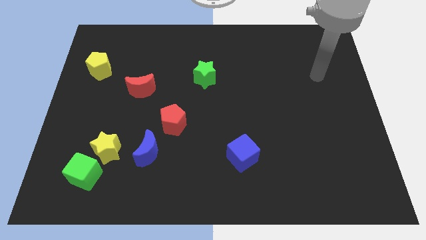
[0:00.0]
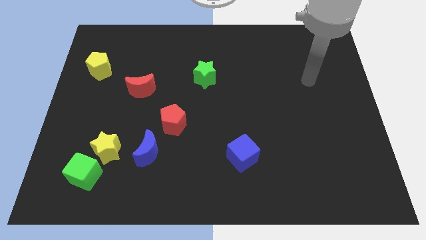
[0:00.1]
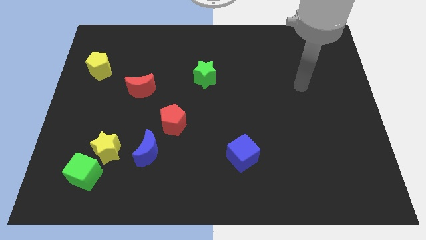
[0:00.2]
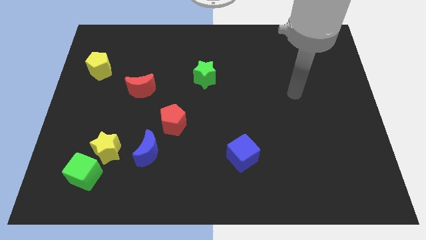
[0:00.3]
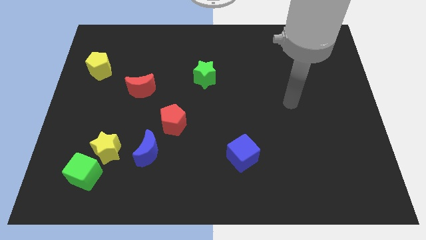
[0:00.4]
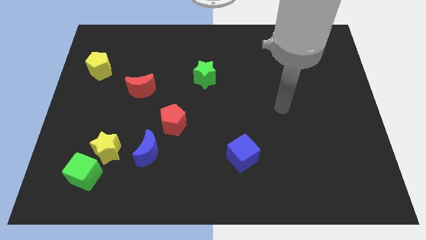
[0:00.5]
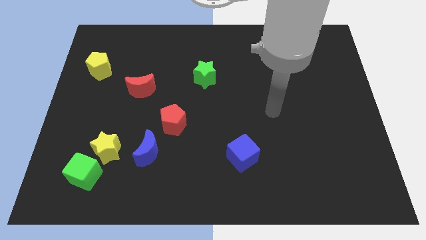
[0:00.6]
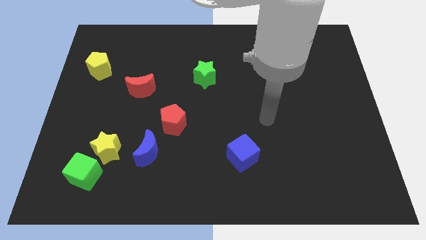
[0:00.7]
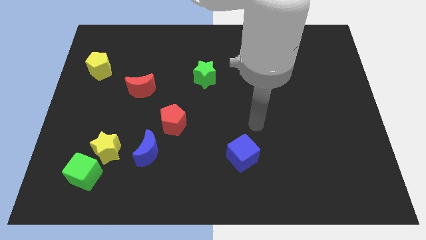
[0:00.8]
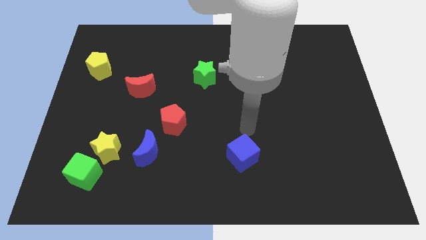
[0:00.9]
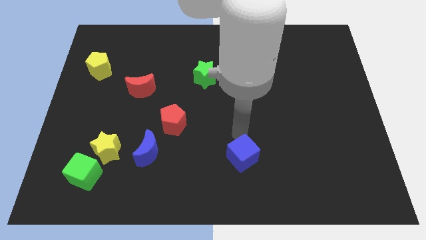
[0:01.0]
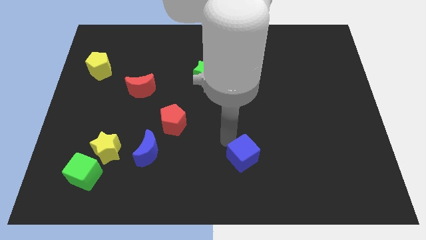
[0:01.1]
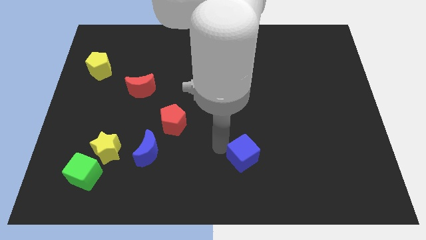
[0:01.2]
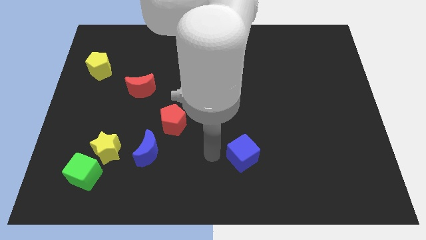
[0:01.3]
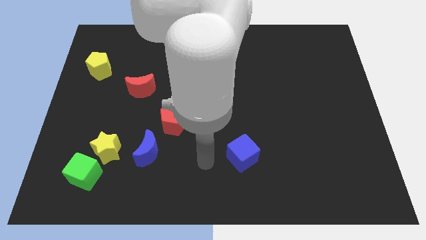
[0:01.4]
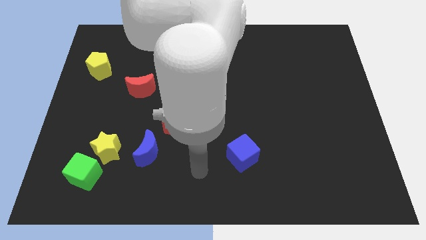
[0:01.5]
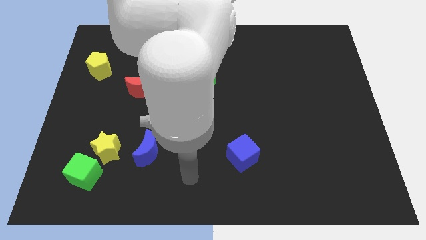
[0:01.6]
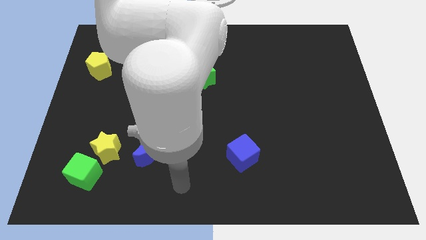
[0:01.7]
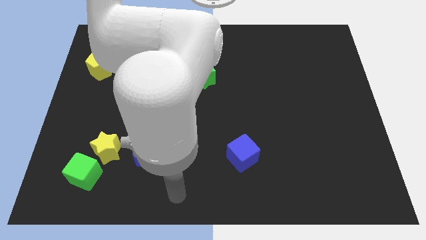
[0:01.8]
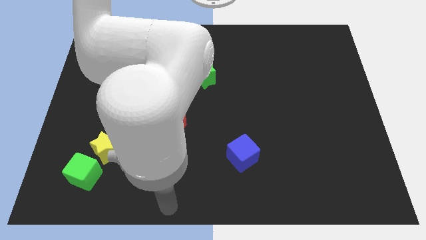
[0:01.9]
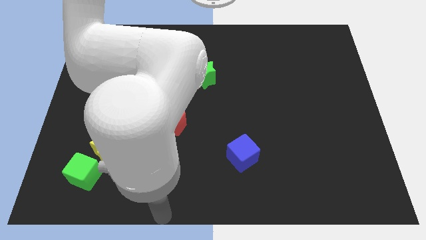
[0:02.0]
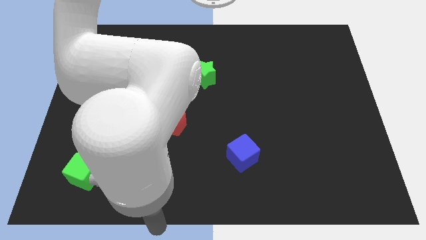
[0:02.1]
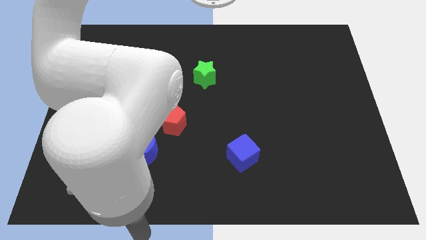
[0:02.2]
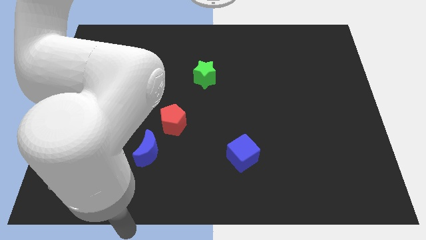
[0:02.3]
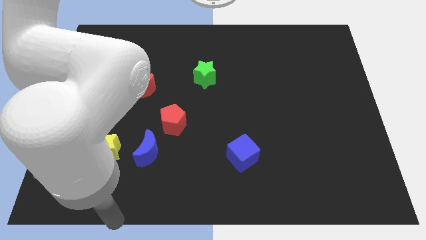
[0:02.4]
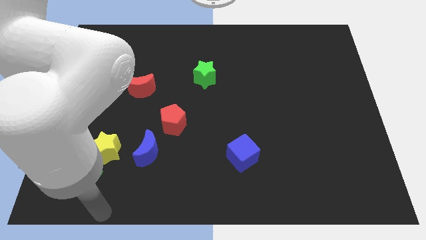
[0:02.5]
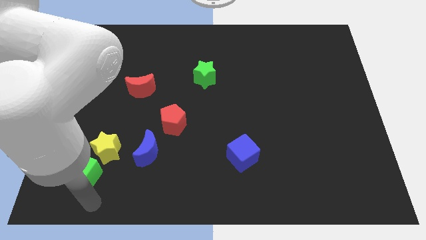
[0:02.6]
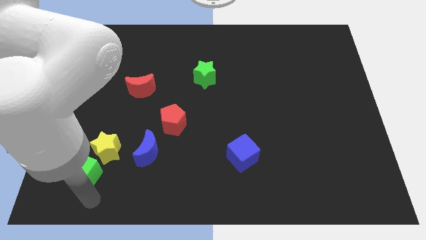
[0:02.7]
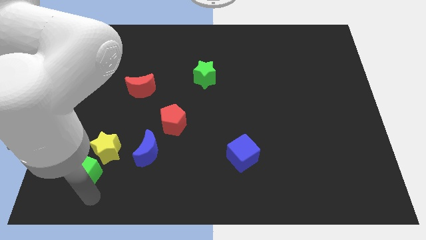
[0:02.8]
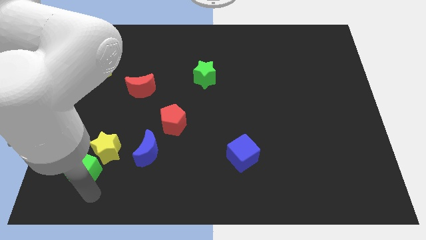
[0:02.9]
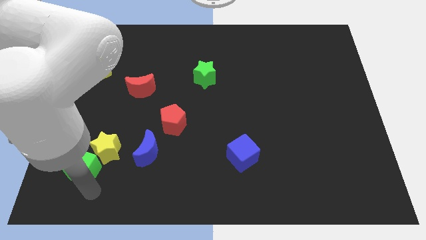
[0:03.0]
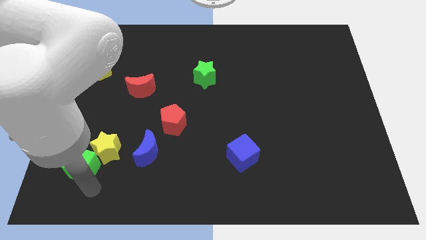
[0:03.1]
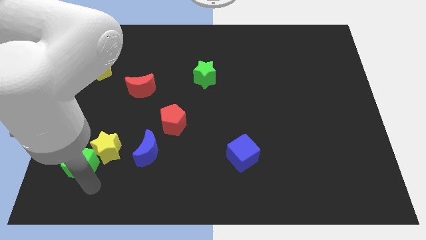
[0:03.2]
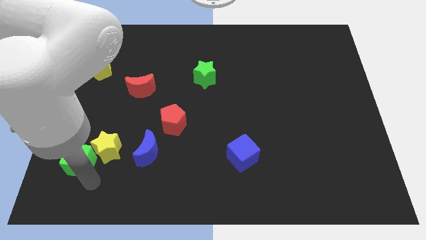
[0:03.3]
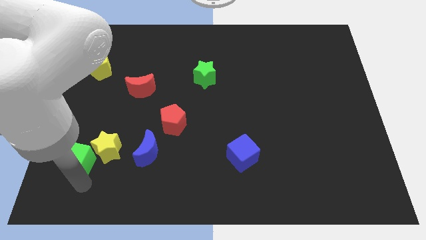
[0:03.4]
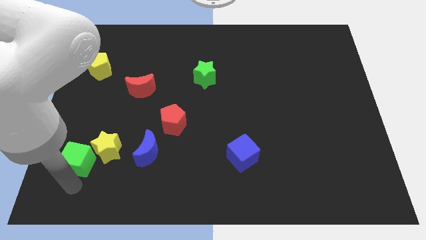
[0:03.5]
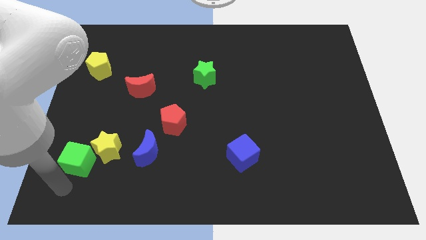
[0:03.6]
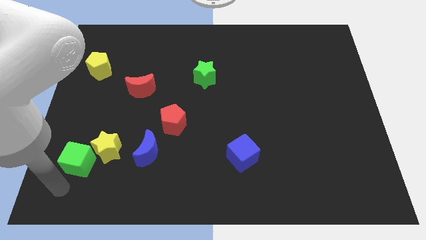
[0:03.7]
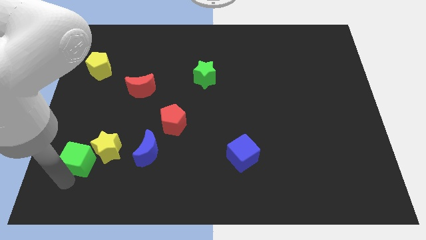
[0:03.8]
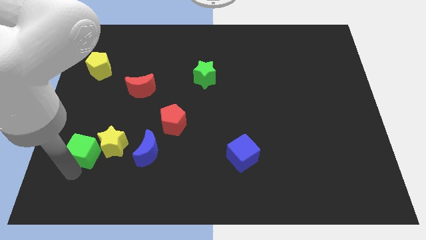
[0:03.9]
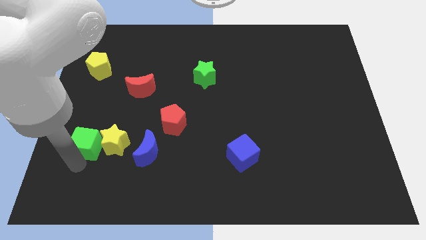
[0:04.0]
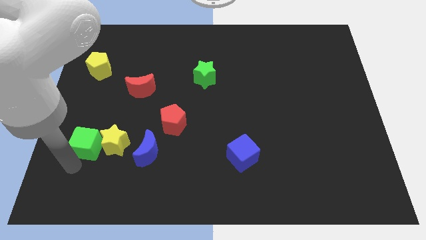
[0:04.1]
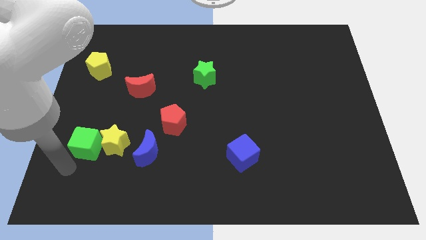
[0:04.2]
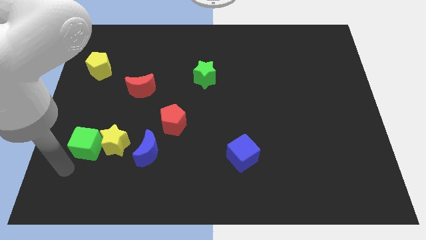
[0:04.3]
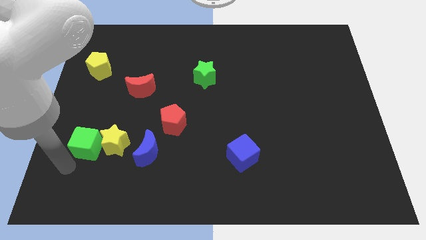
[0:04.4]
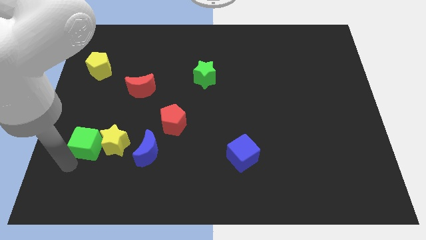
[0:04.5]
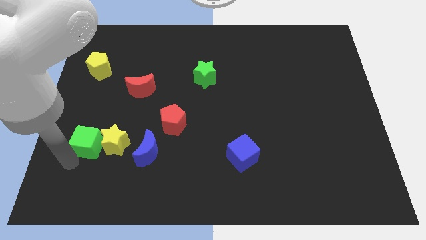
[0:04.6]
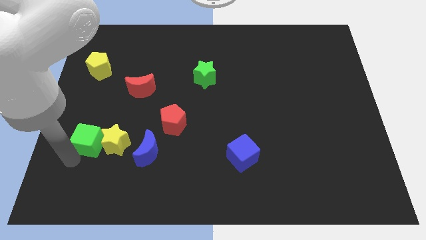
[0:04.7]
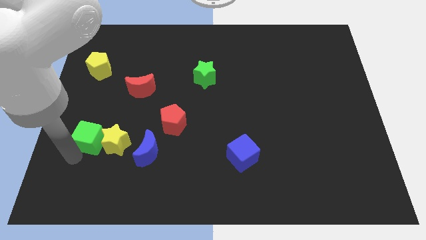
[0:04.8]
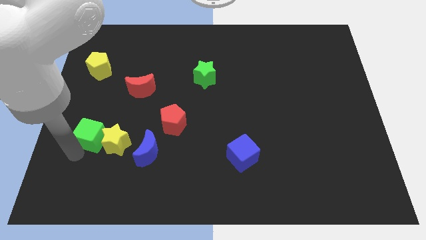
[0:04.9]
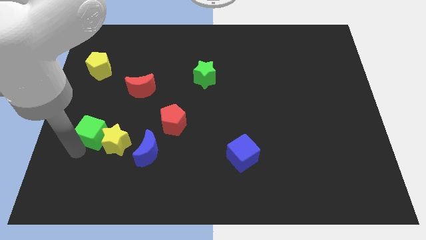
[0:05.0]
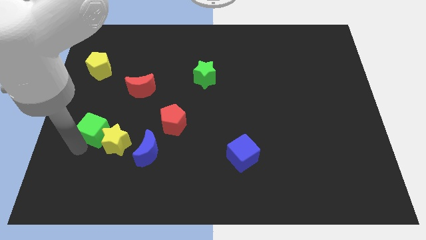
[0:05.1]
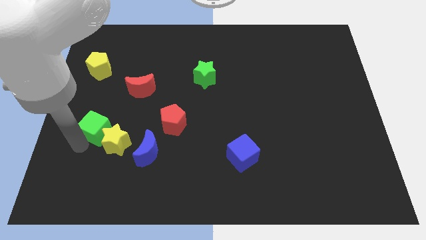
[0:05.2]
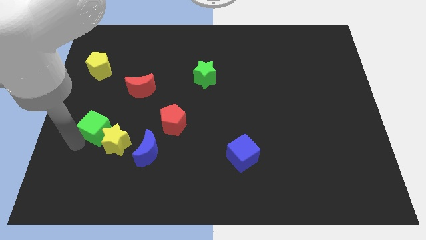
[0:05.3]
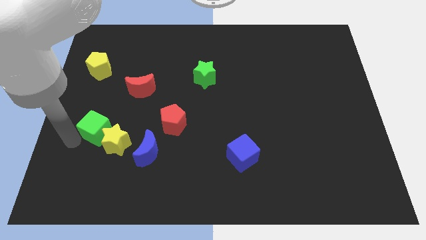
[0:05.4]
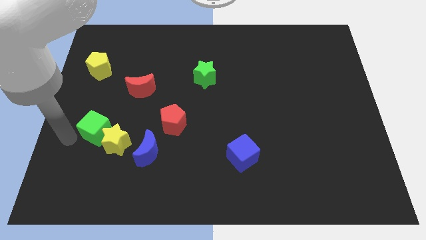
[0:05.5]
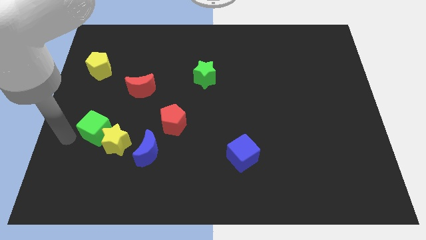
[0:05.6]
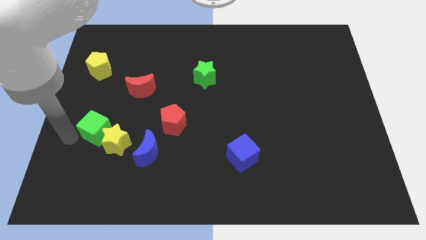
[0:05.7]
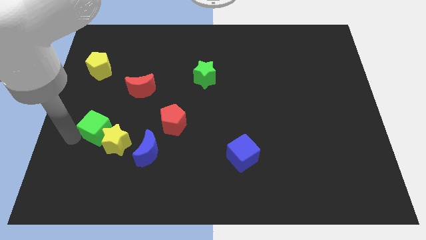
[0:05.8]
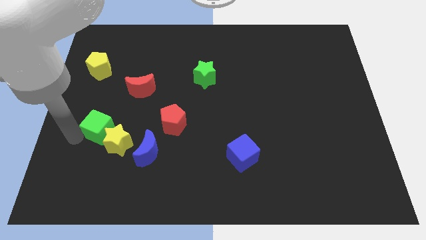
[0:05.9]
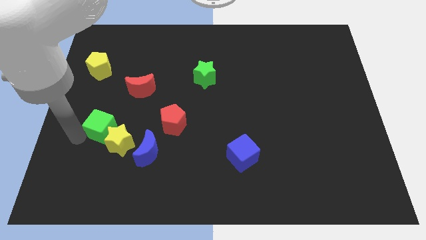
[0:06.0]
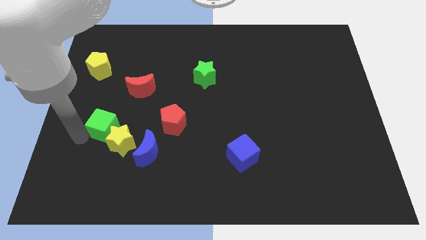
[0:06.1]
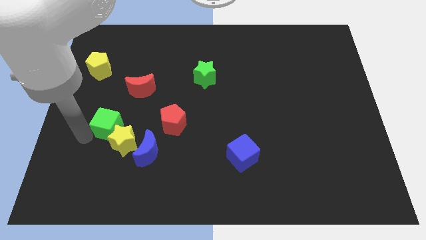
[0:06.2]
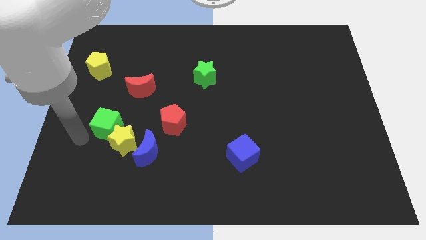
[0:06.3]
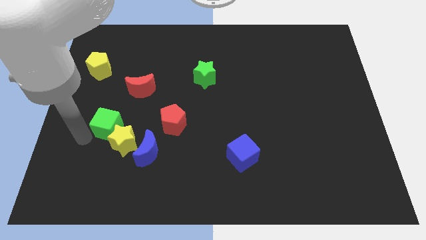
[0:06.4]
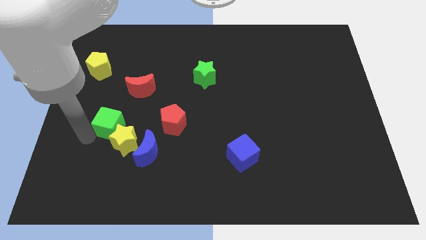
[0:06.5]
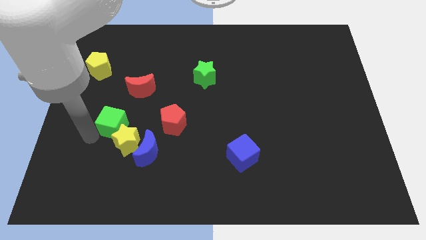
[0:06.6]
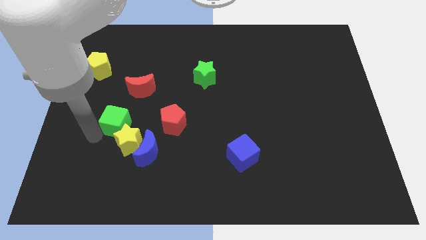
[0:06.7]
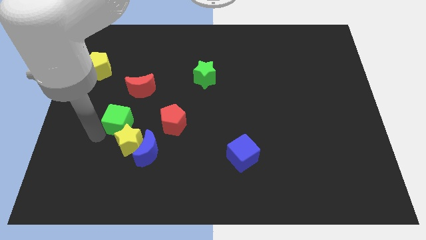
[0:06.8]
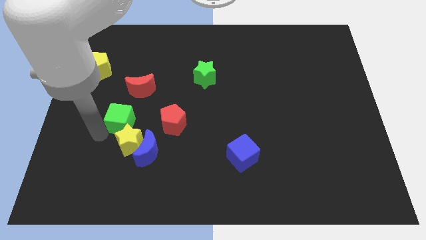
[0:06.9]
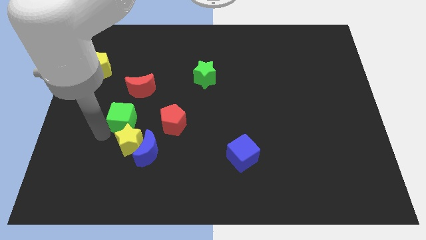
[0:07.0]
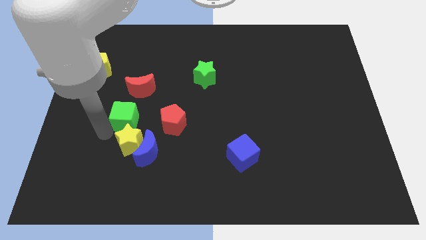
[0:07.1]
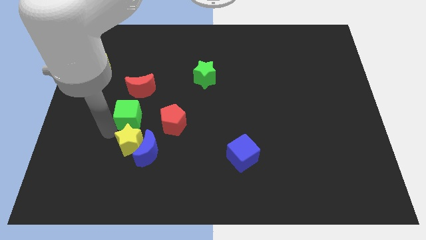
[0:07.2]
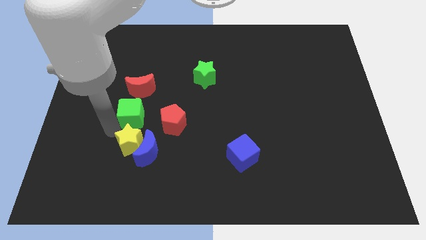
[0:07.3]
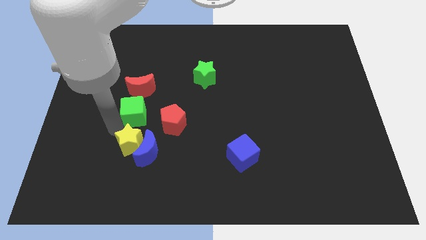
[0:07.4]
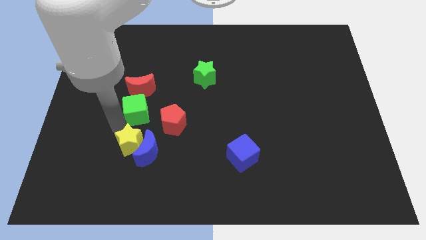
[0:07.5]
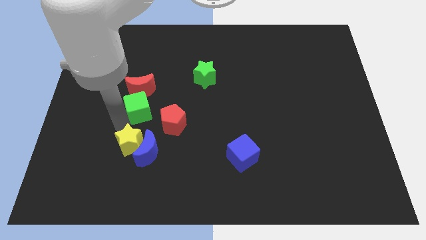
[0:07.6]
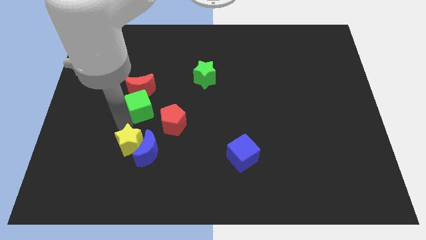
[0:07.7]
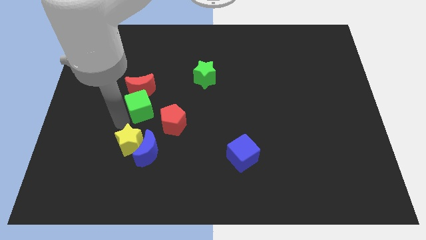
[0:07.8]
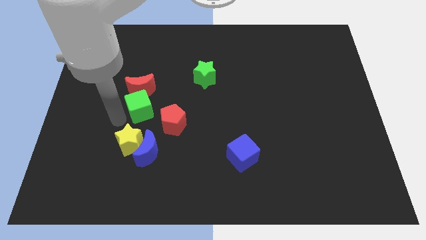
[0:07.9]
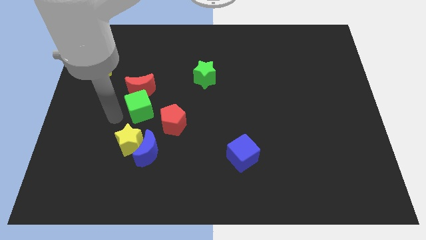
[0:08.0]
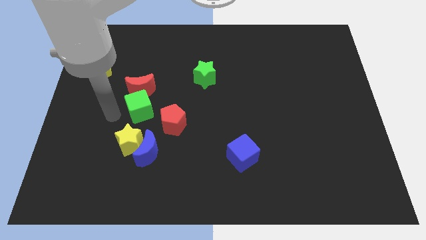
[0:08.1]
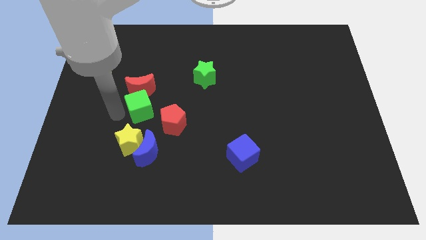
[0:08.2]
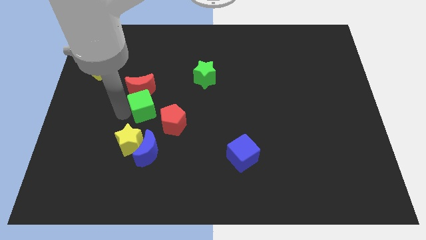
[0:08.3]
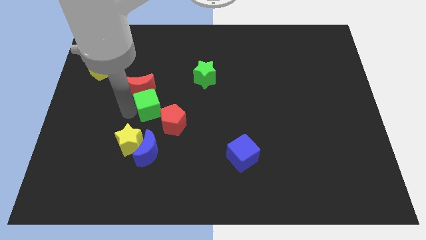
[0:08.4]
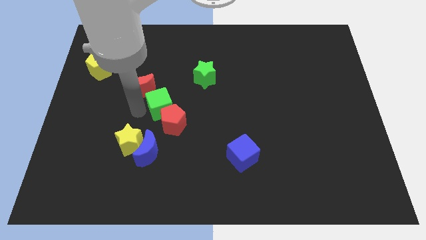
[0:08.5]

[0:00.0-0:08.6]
move the green cube diagonally up and right

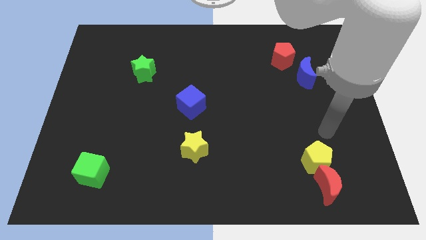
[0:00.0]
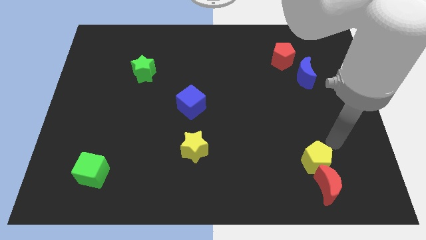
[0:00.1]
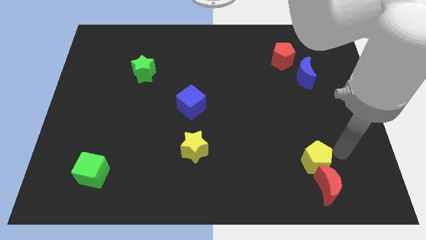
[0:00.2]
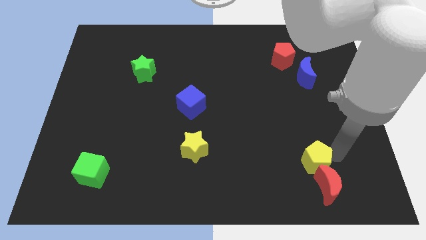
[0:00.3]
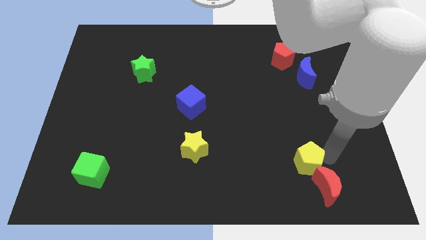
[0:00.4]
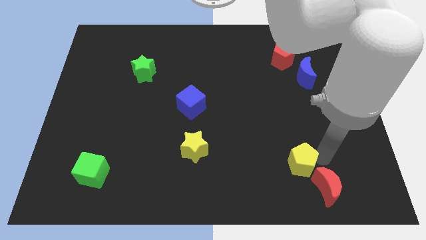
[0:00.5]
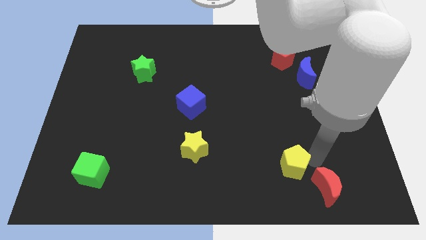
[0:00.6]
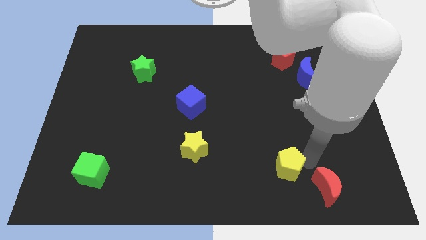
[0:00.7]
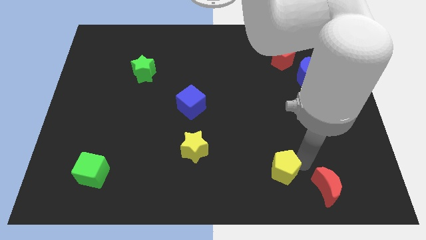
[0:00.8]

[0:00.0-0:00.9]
slightly slide the yellow pentagon to the left
